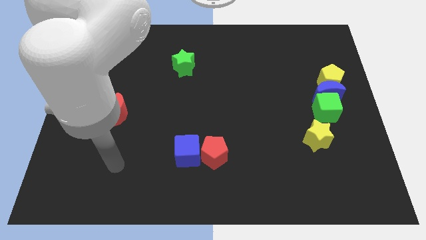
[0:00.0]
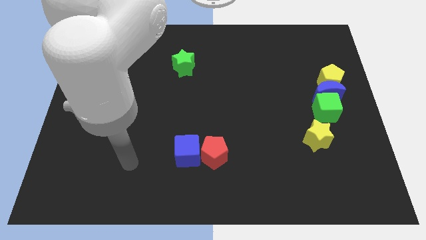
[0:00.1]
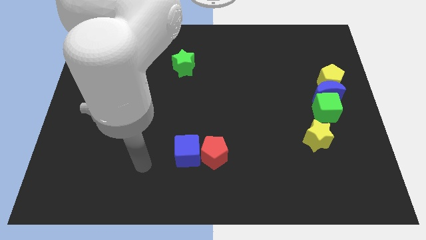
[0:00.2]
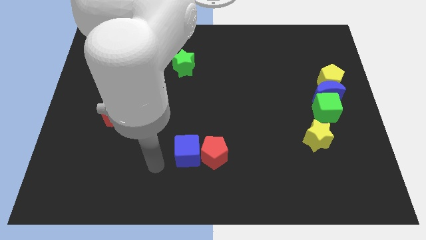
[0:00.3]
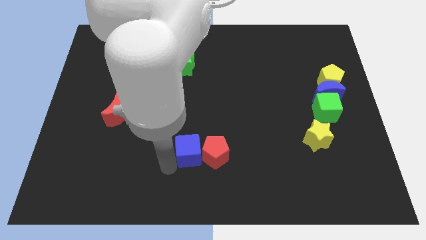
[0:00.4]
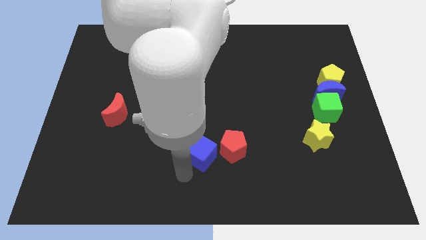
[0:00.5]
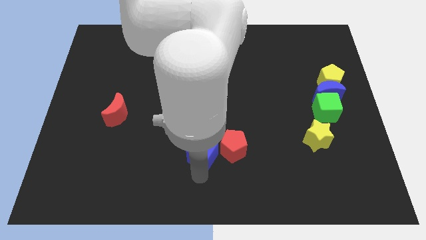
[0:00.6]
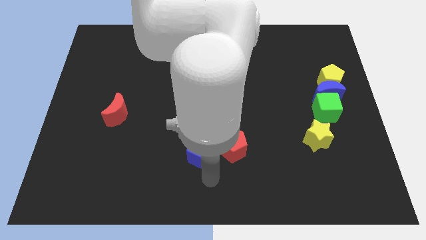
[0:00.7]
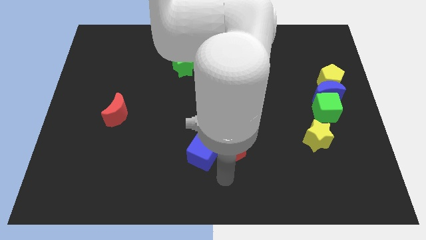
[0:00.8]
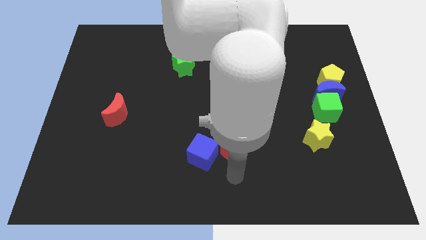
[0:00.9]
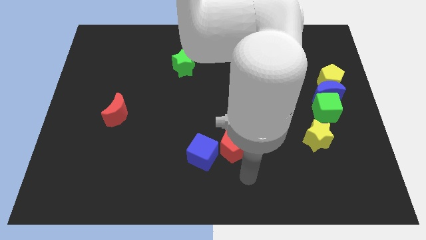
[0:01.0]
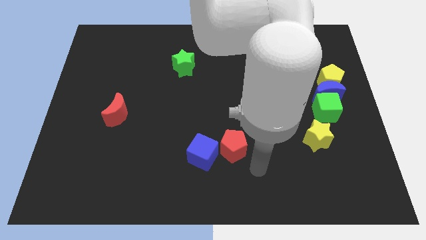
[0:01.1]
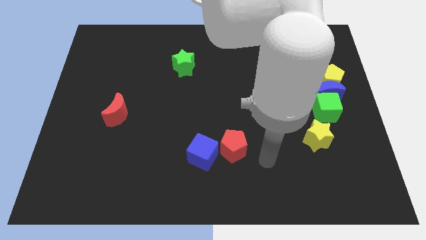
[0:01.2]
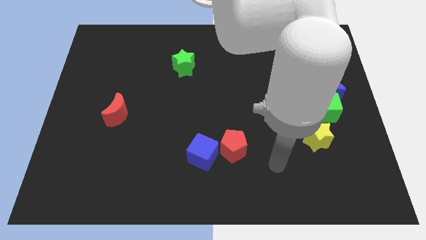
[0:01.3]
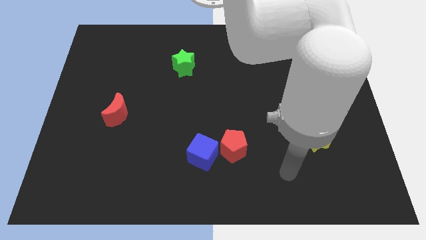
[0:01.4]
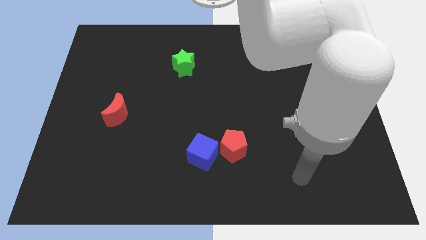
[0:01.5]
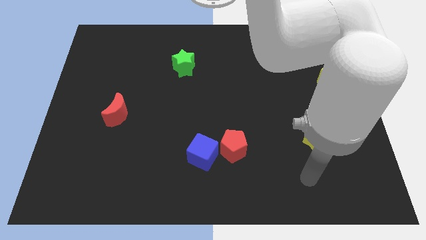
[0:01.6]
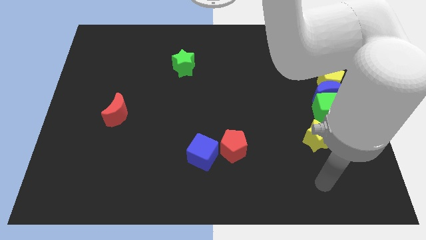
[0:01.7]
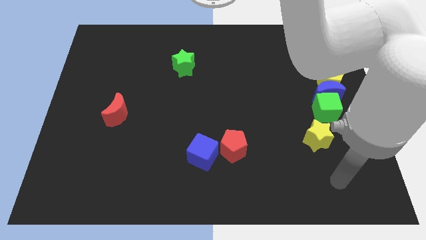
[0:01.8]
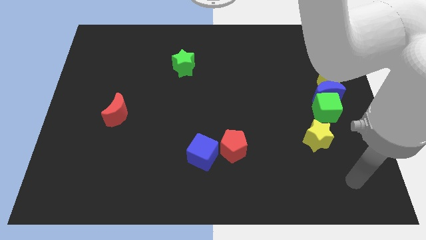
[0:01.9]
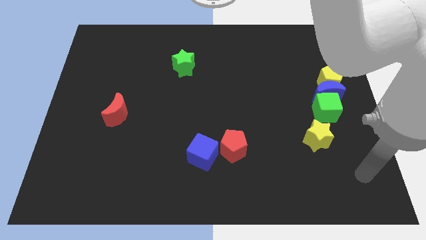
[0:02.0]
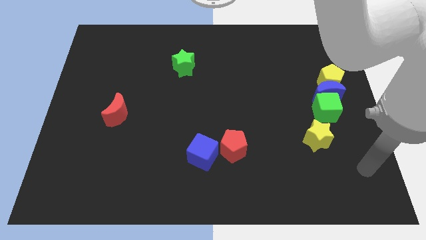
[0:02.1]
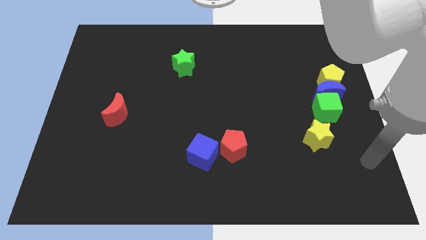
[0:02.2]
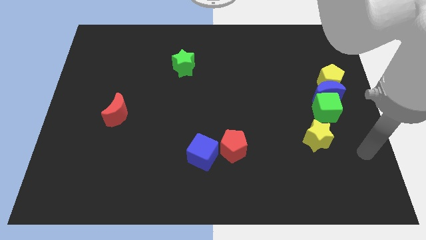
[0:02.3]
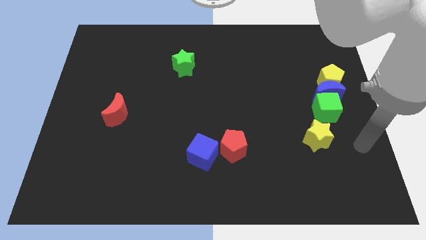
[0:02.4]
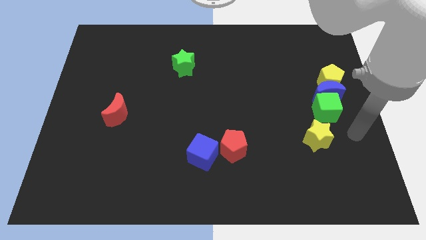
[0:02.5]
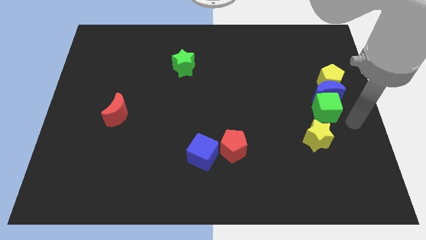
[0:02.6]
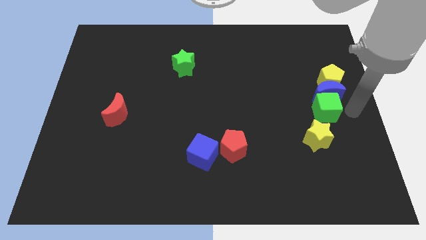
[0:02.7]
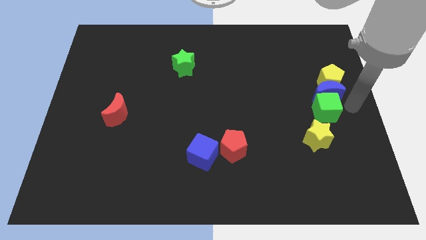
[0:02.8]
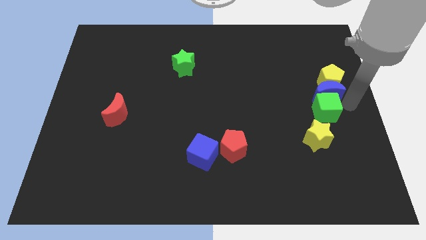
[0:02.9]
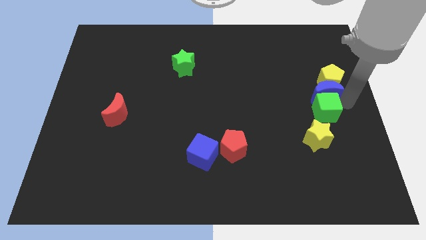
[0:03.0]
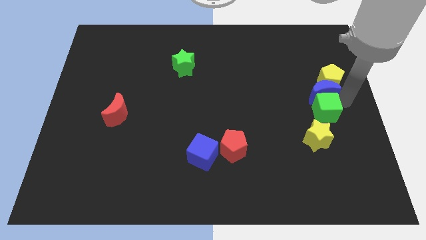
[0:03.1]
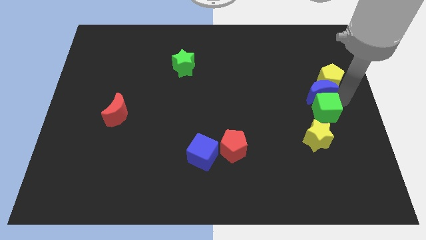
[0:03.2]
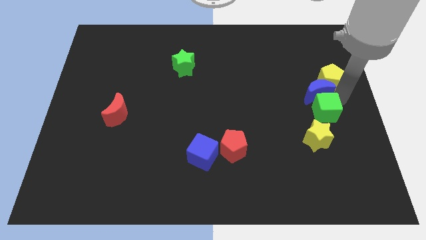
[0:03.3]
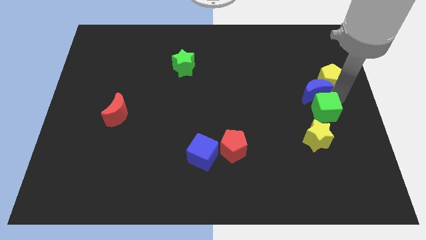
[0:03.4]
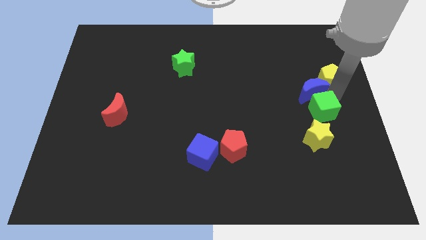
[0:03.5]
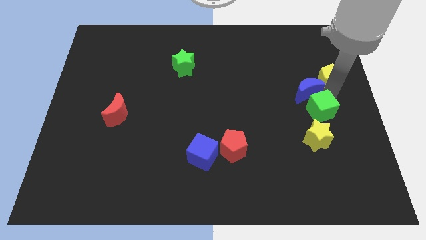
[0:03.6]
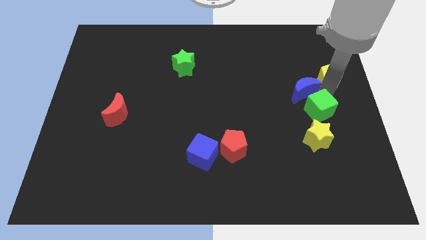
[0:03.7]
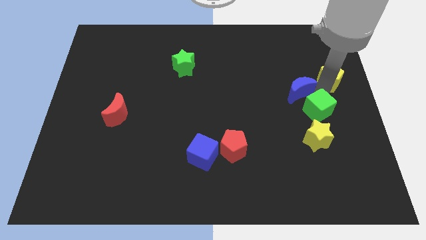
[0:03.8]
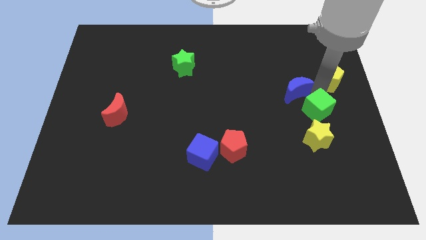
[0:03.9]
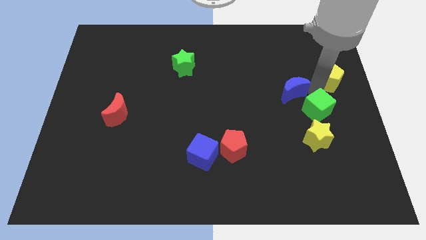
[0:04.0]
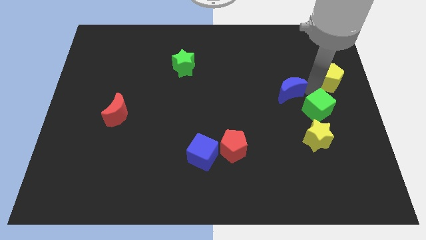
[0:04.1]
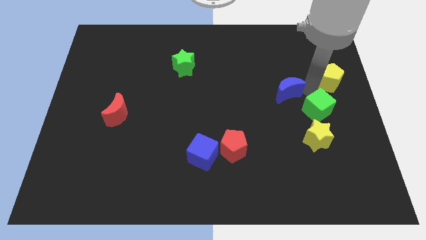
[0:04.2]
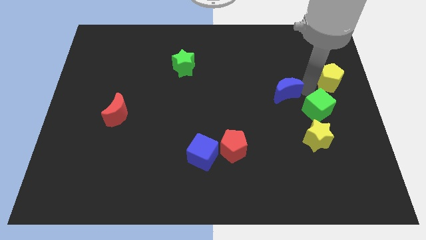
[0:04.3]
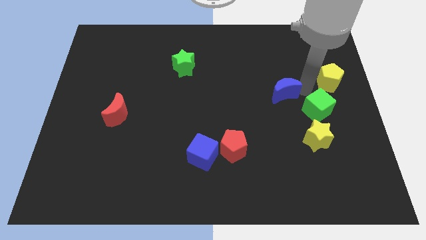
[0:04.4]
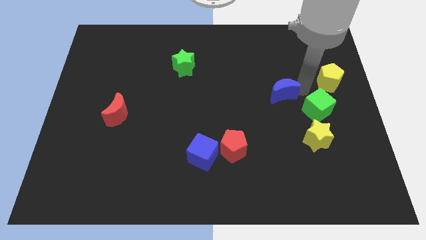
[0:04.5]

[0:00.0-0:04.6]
move the blue moon away from the yellow pentagon and green cube

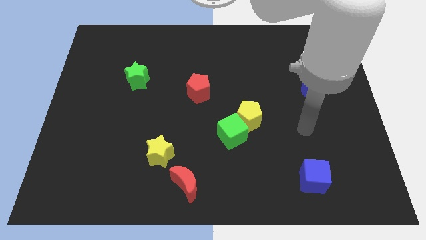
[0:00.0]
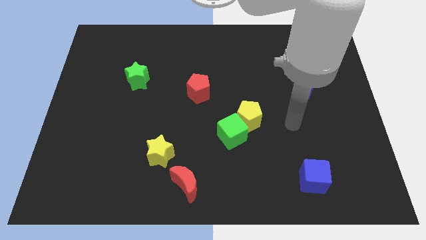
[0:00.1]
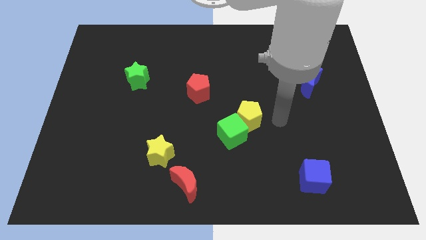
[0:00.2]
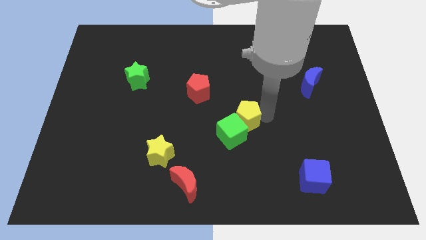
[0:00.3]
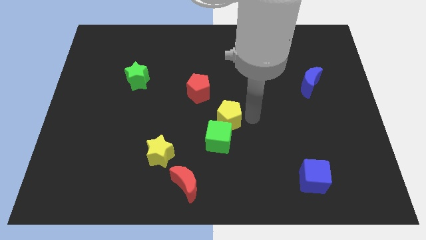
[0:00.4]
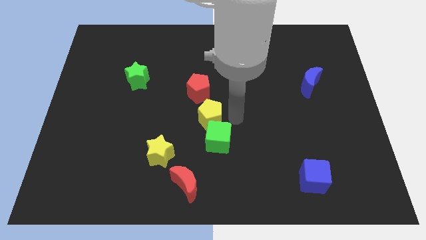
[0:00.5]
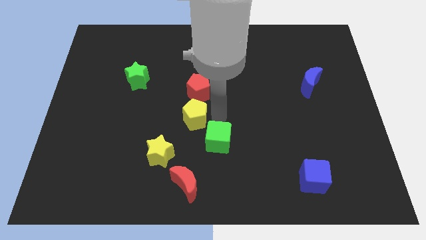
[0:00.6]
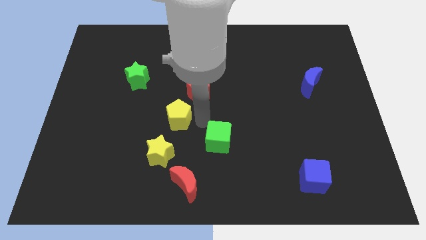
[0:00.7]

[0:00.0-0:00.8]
separate the green cube from the yellow pentagon

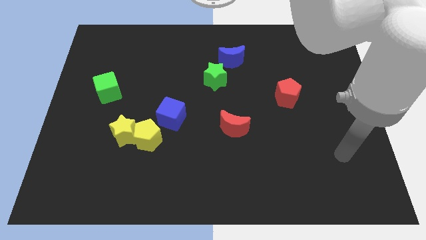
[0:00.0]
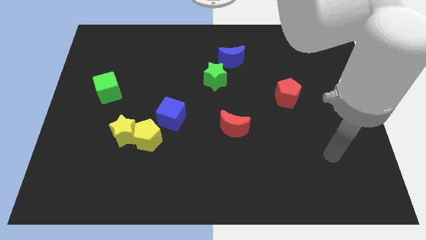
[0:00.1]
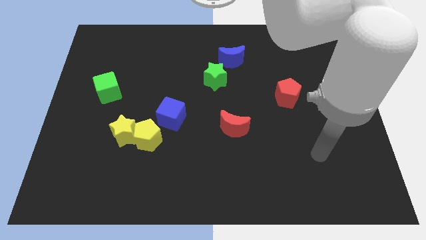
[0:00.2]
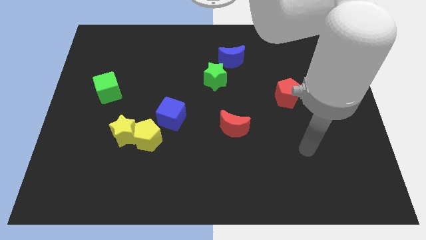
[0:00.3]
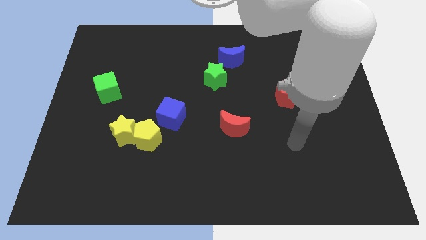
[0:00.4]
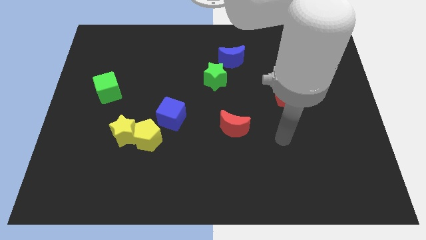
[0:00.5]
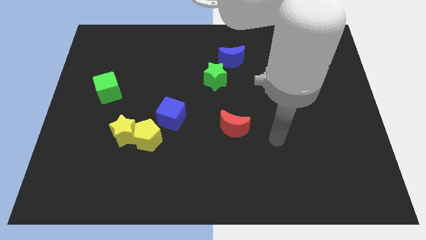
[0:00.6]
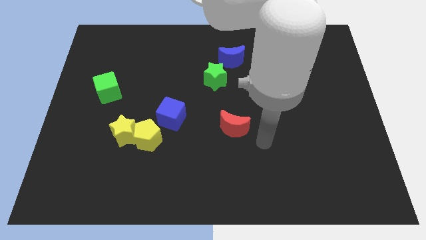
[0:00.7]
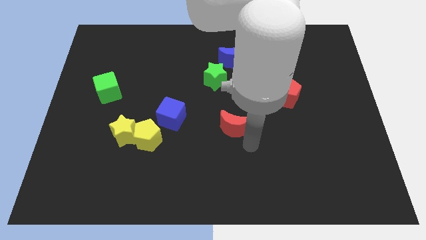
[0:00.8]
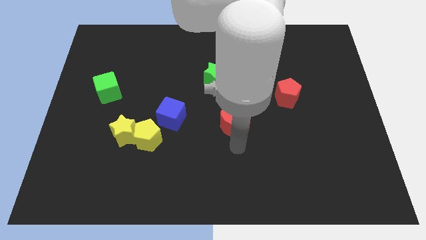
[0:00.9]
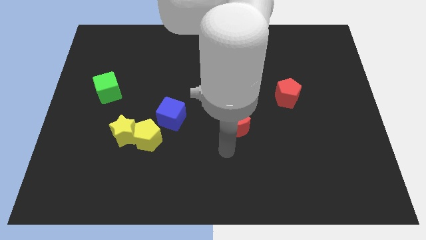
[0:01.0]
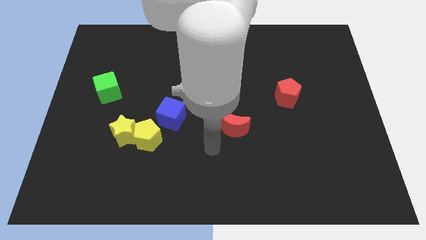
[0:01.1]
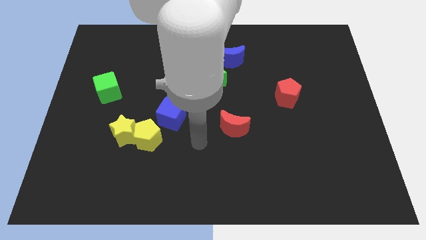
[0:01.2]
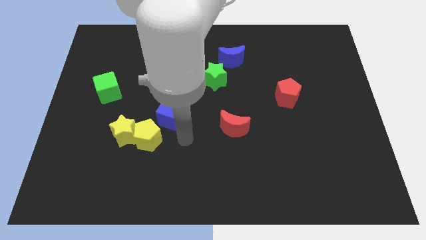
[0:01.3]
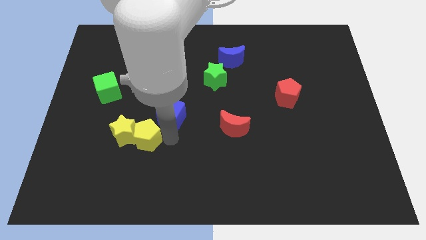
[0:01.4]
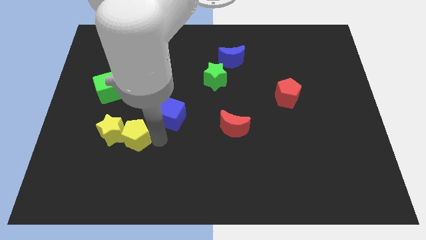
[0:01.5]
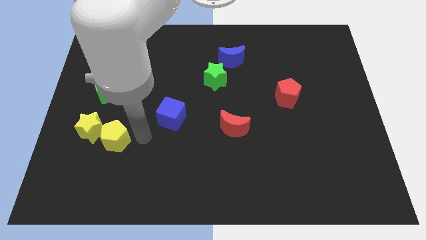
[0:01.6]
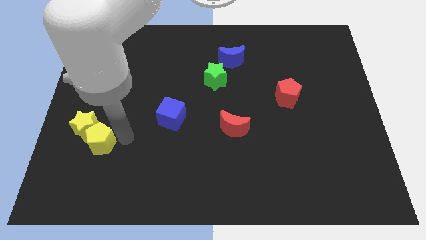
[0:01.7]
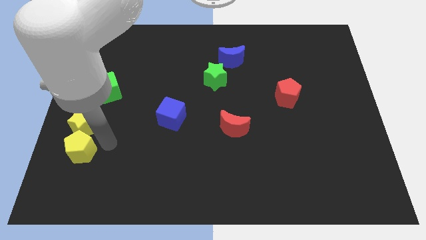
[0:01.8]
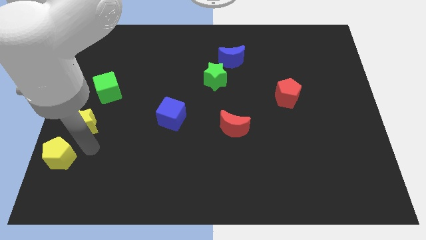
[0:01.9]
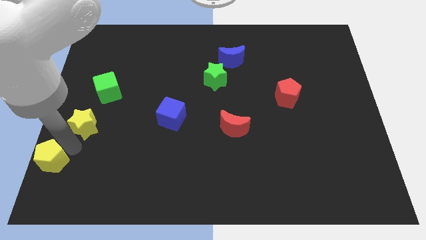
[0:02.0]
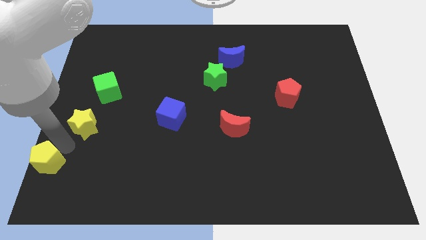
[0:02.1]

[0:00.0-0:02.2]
pull the yellow star apart from the yellow pentagon

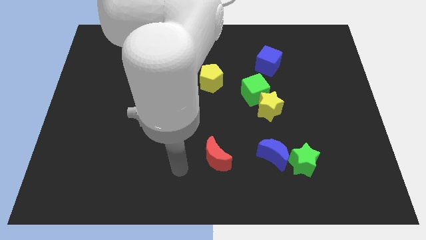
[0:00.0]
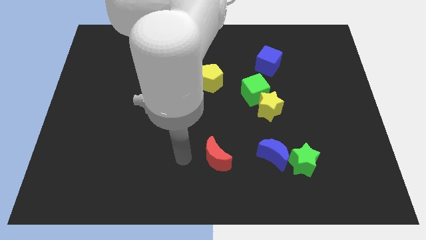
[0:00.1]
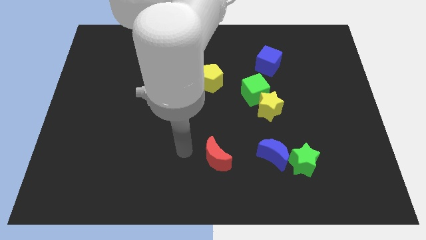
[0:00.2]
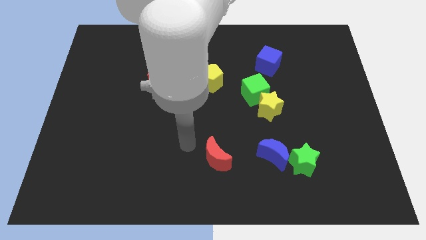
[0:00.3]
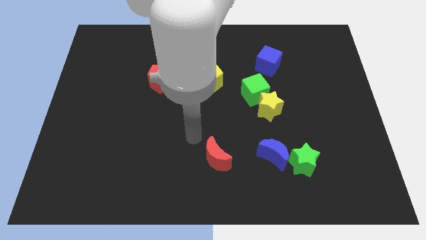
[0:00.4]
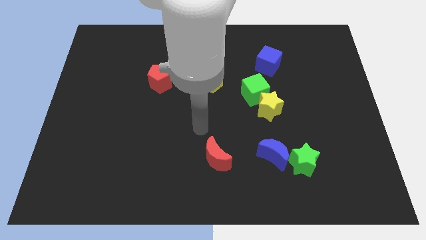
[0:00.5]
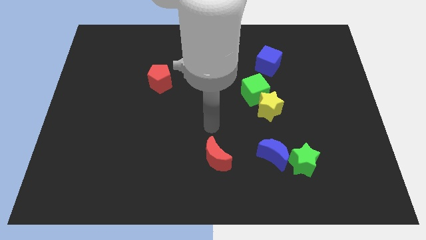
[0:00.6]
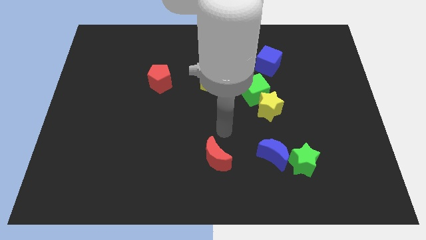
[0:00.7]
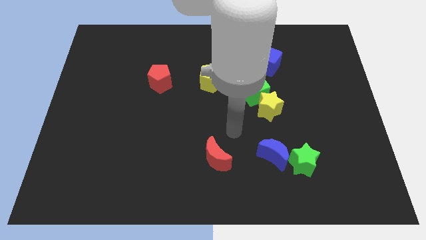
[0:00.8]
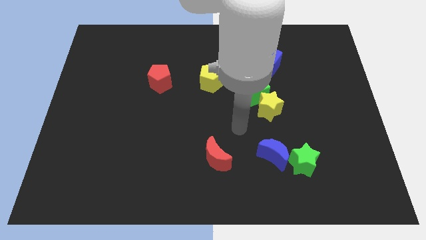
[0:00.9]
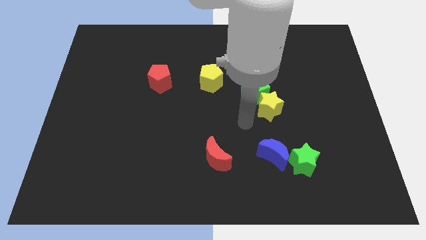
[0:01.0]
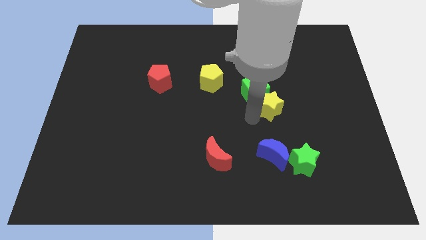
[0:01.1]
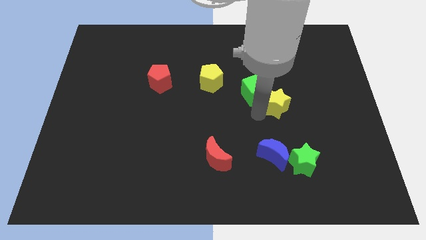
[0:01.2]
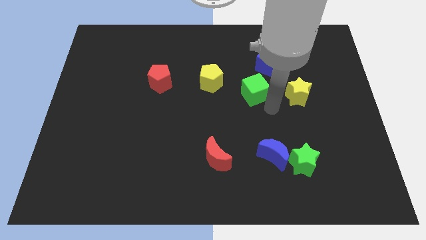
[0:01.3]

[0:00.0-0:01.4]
move the green cube away from the yellow star

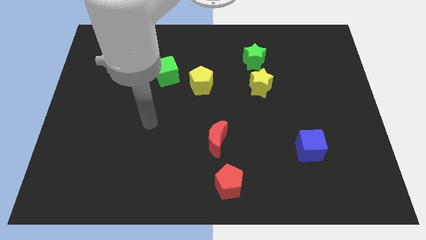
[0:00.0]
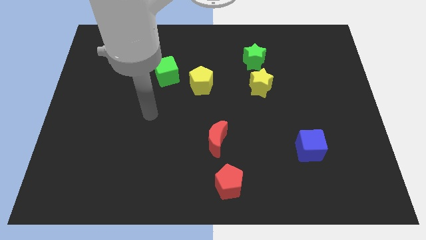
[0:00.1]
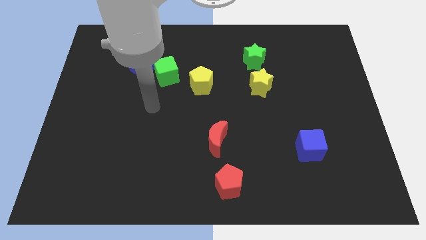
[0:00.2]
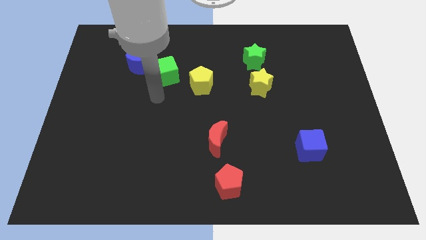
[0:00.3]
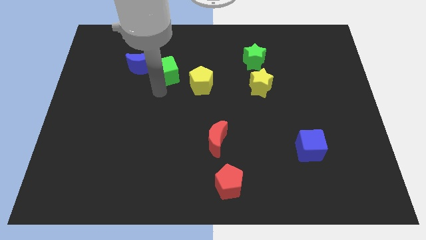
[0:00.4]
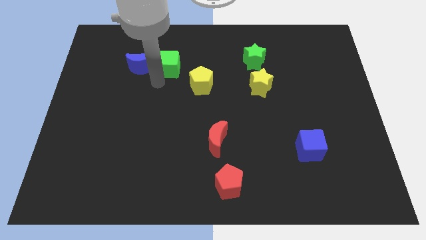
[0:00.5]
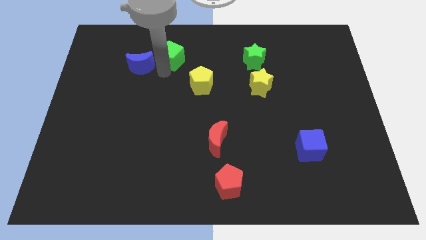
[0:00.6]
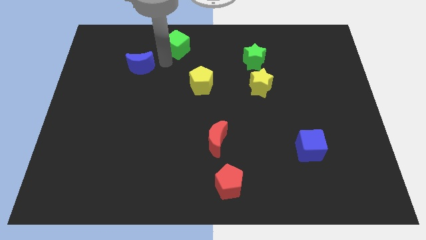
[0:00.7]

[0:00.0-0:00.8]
pull the blue moon apart from the green cube
